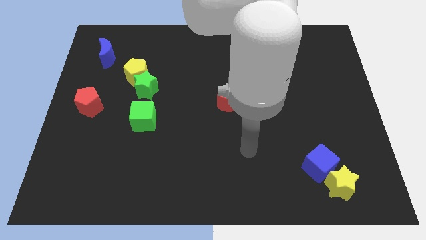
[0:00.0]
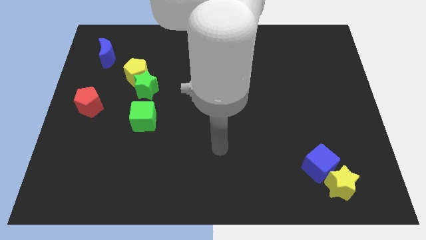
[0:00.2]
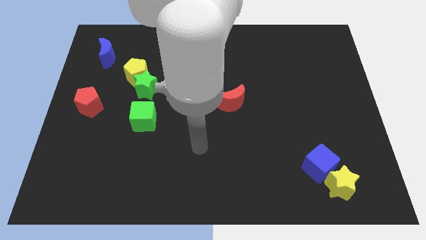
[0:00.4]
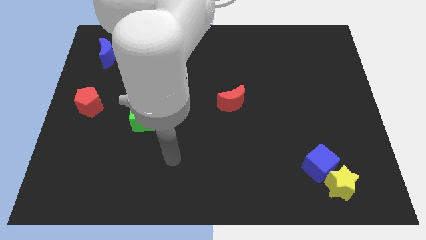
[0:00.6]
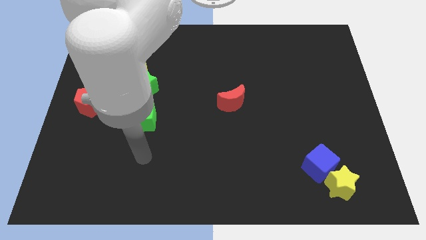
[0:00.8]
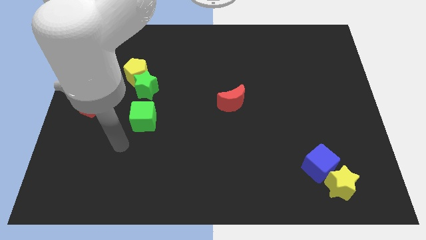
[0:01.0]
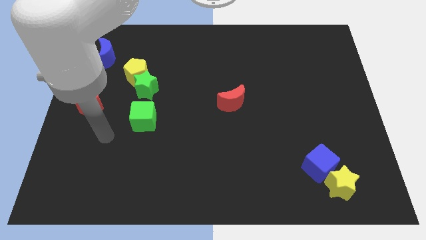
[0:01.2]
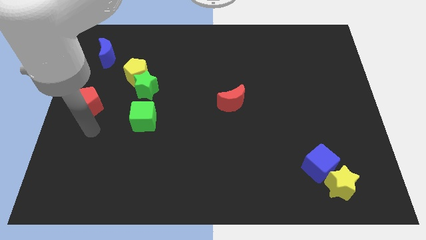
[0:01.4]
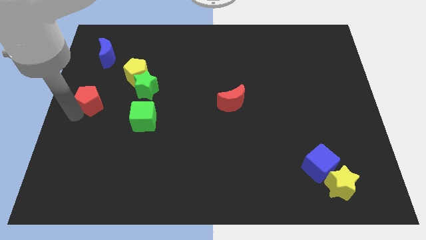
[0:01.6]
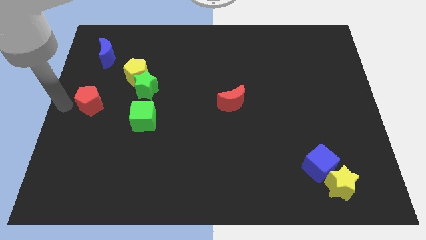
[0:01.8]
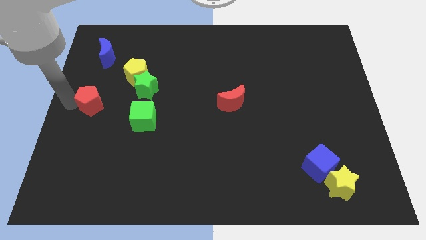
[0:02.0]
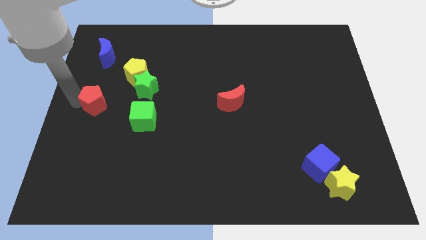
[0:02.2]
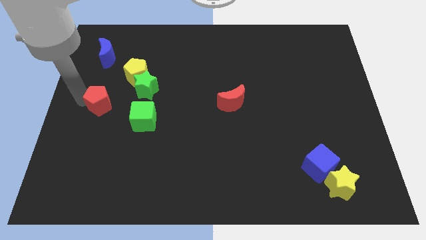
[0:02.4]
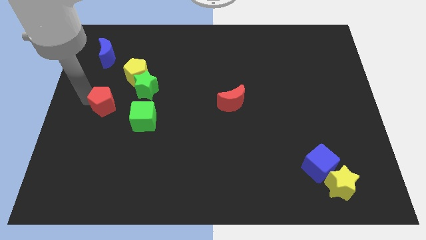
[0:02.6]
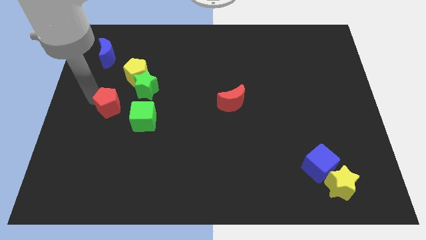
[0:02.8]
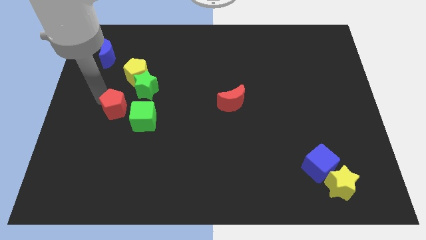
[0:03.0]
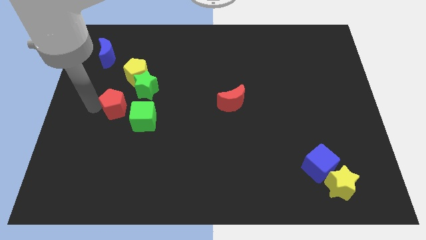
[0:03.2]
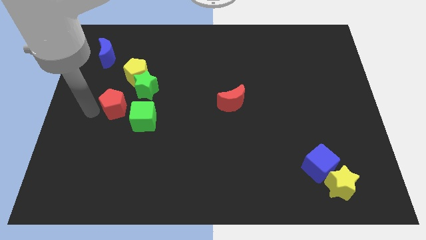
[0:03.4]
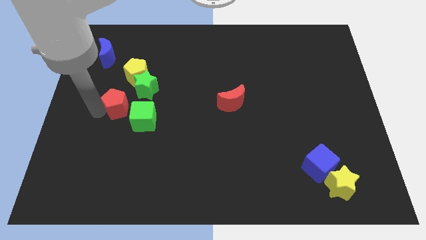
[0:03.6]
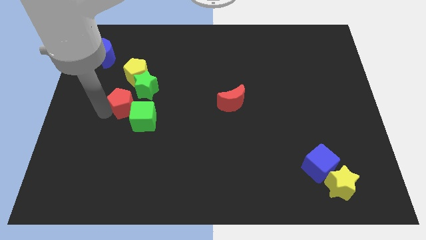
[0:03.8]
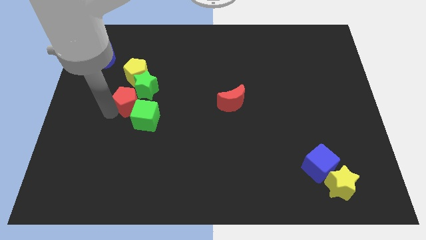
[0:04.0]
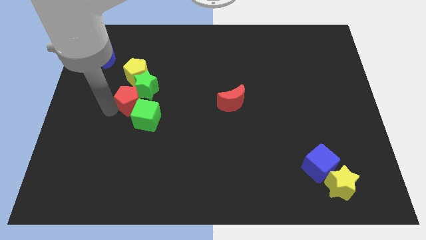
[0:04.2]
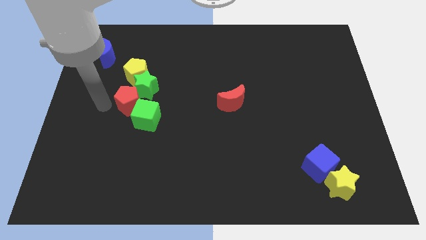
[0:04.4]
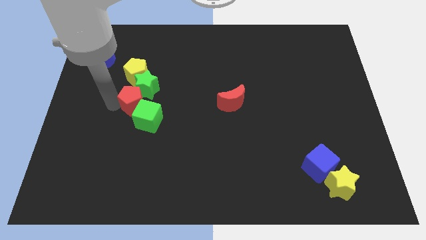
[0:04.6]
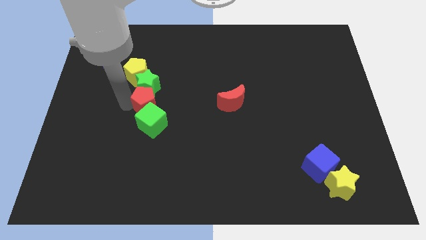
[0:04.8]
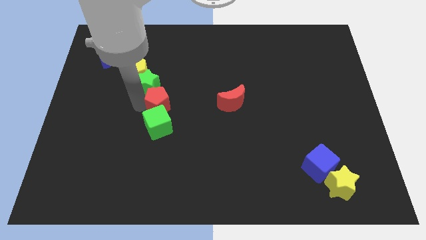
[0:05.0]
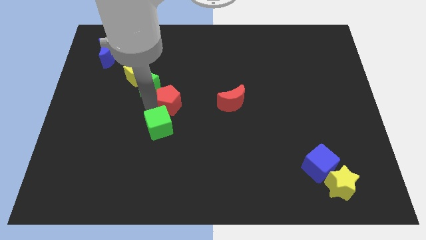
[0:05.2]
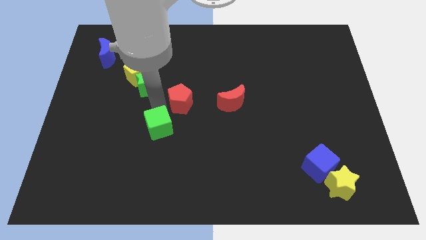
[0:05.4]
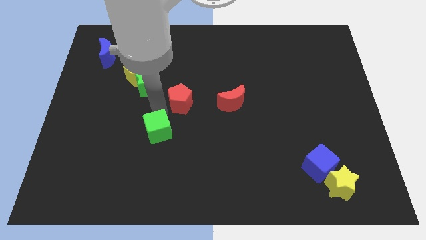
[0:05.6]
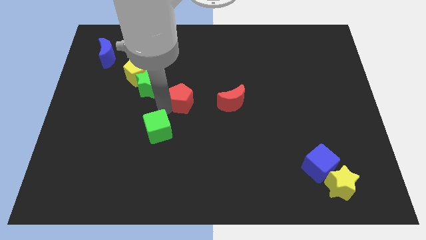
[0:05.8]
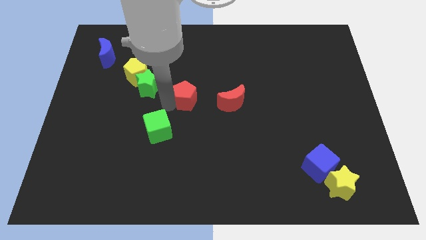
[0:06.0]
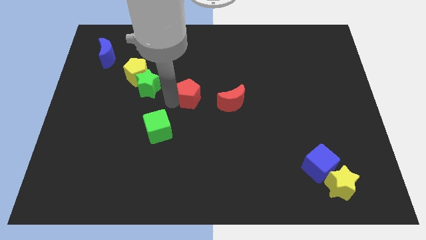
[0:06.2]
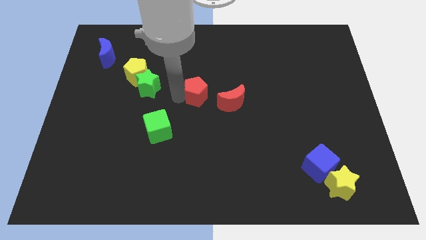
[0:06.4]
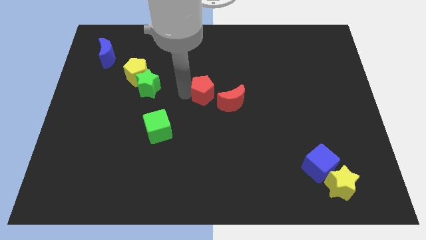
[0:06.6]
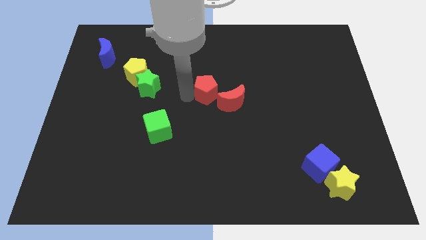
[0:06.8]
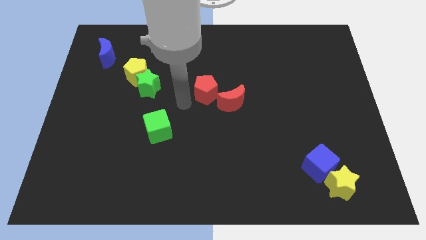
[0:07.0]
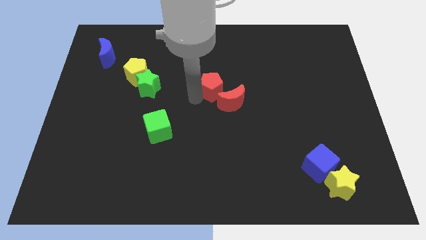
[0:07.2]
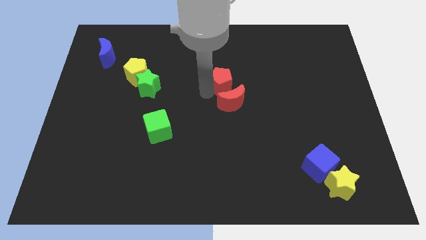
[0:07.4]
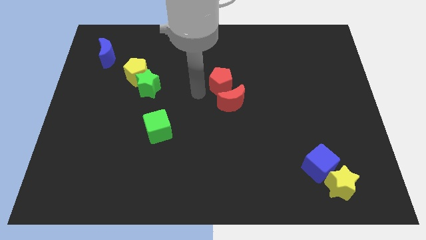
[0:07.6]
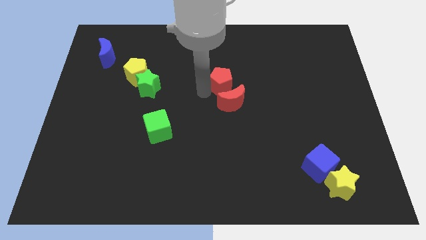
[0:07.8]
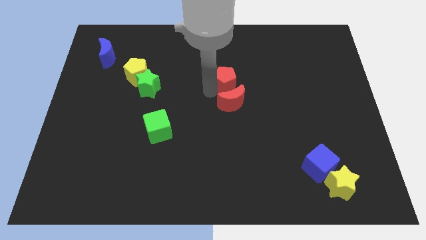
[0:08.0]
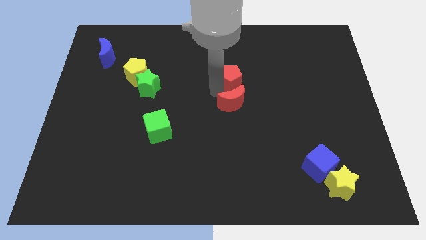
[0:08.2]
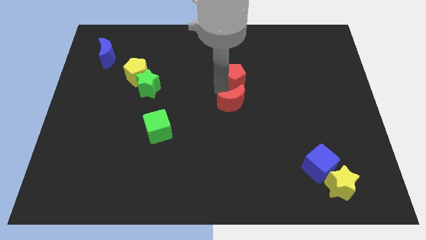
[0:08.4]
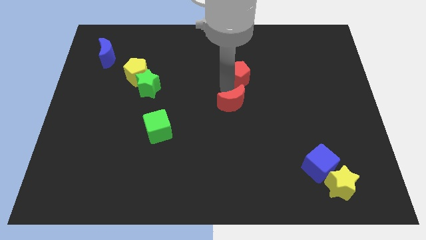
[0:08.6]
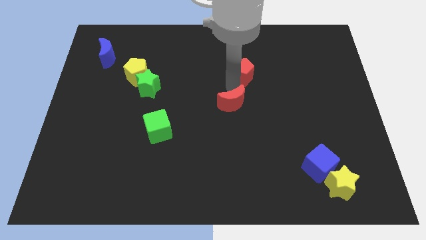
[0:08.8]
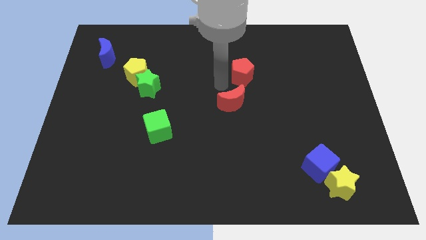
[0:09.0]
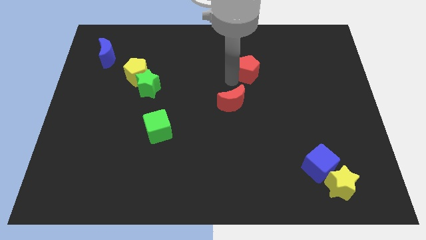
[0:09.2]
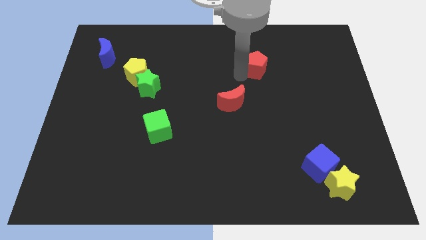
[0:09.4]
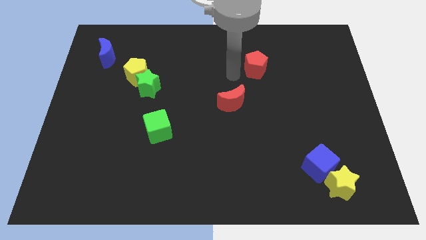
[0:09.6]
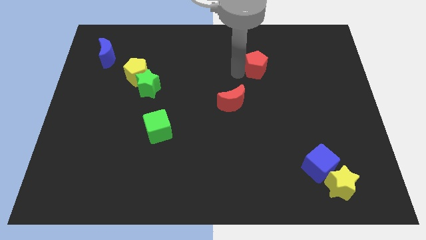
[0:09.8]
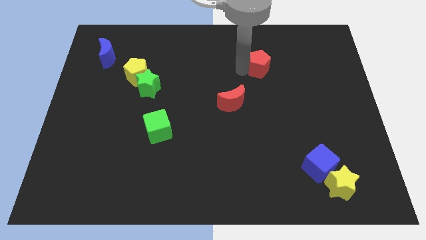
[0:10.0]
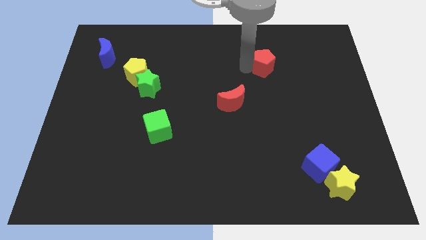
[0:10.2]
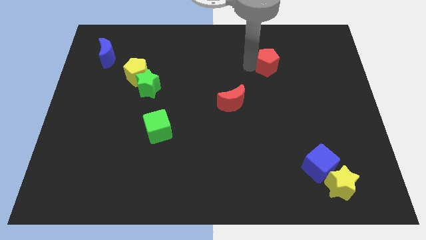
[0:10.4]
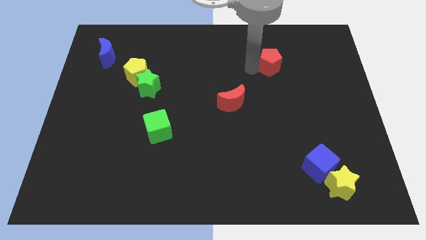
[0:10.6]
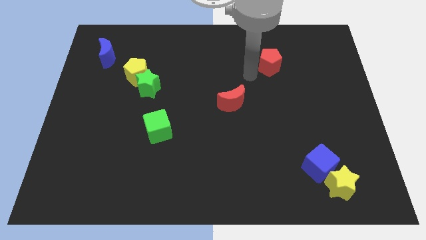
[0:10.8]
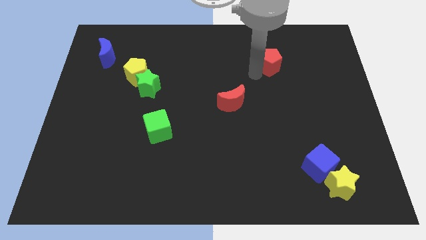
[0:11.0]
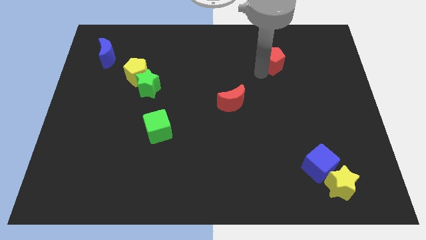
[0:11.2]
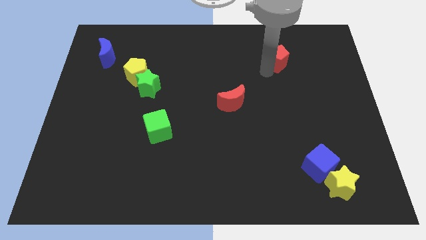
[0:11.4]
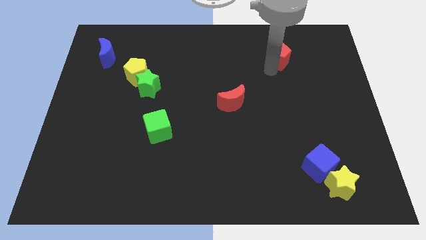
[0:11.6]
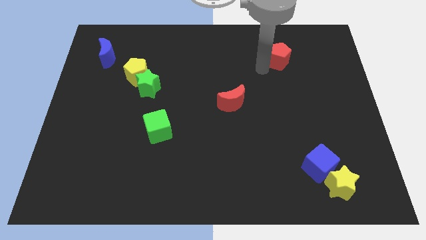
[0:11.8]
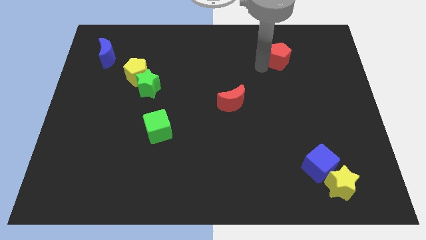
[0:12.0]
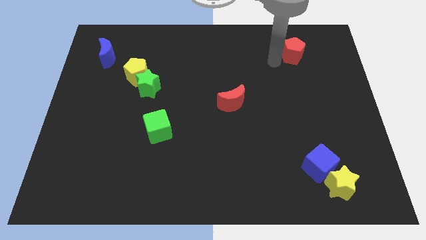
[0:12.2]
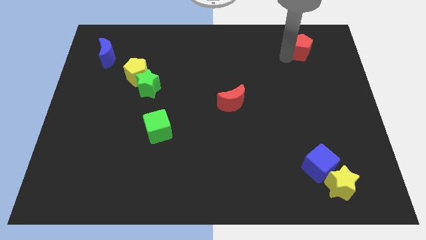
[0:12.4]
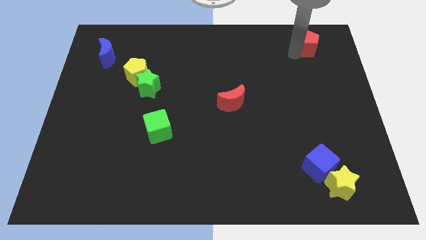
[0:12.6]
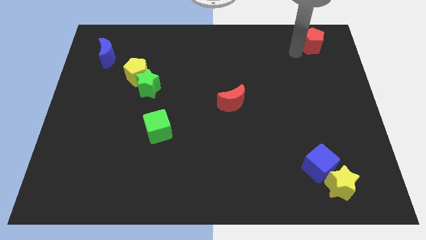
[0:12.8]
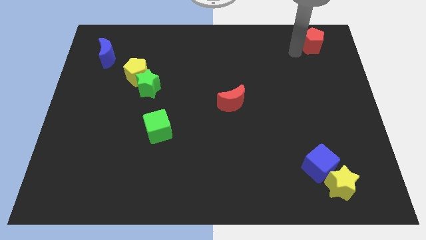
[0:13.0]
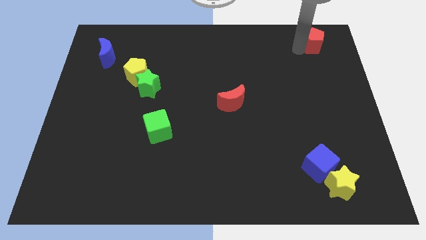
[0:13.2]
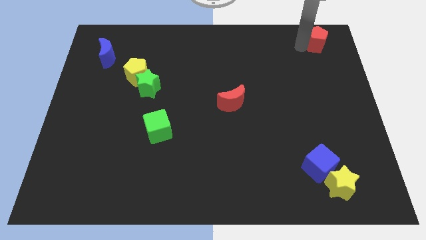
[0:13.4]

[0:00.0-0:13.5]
move the red pentagon to the top right of the board

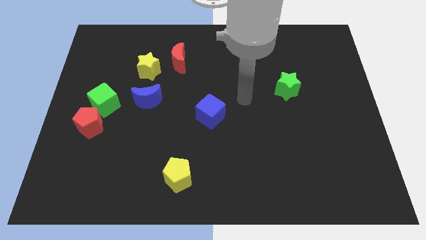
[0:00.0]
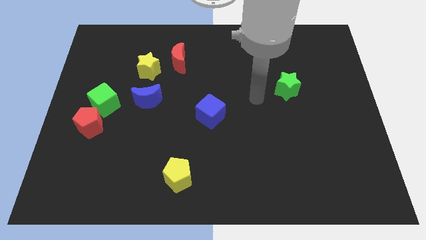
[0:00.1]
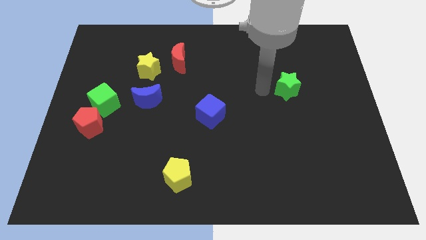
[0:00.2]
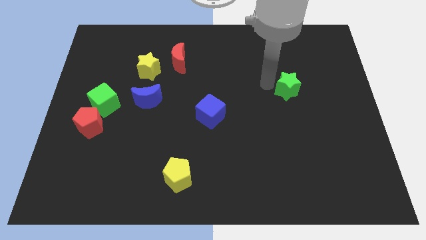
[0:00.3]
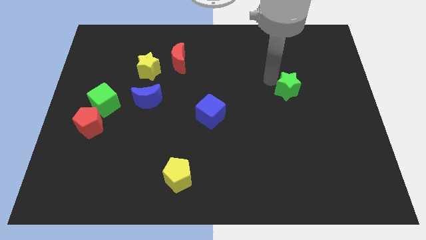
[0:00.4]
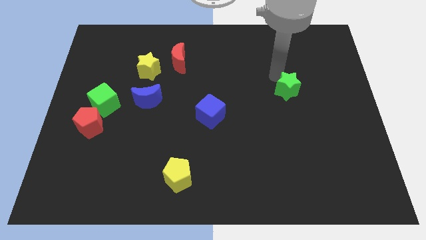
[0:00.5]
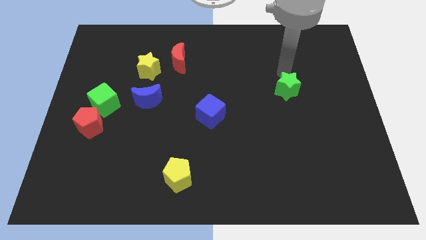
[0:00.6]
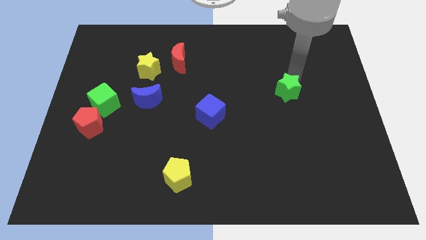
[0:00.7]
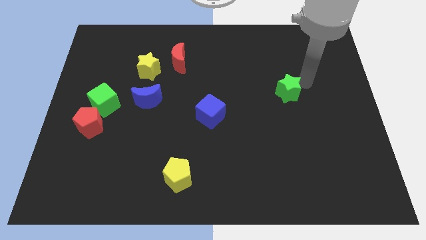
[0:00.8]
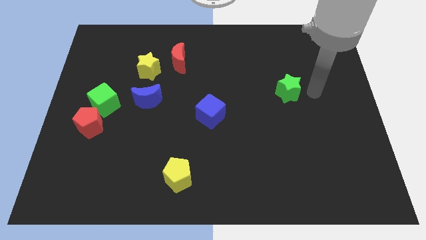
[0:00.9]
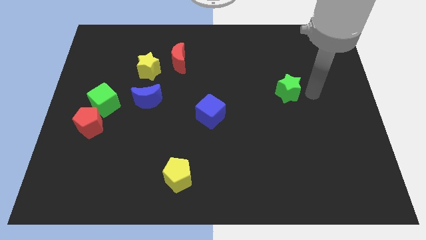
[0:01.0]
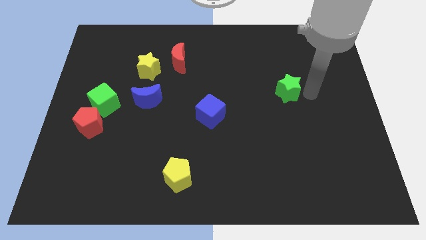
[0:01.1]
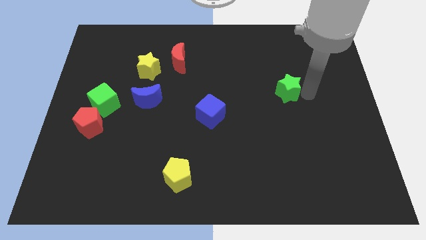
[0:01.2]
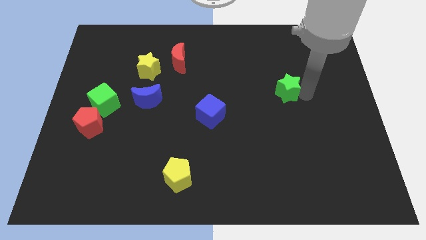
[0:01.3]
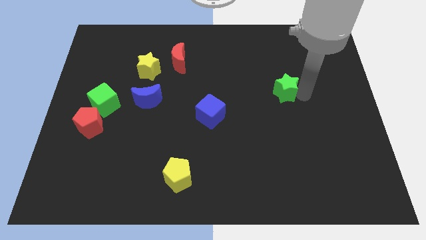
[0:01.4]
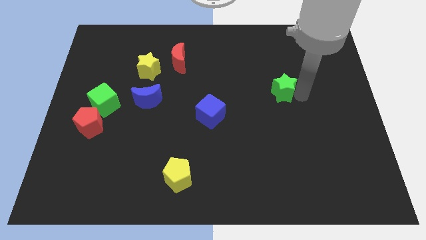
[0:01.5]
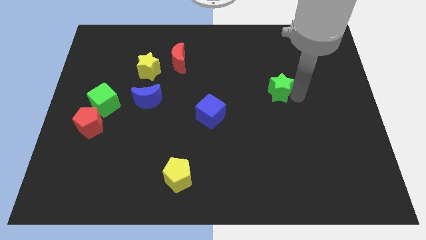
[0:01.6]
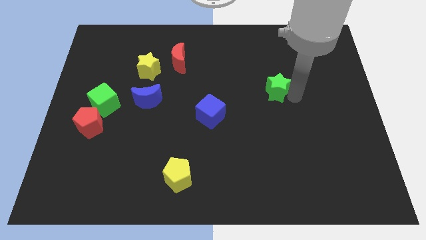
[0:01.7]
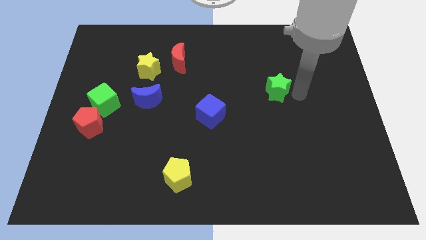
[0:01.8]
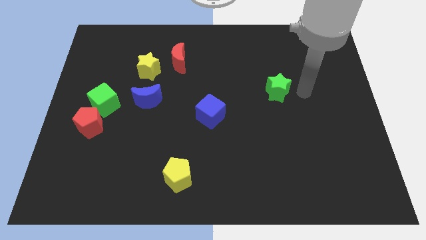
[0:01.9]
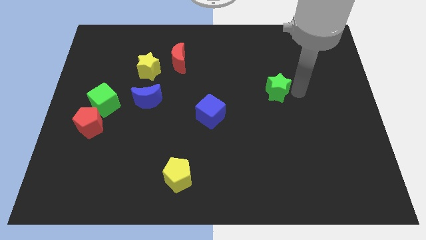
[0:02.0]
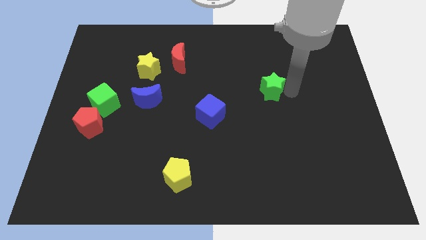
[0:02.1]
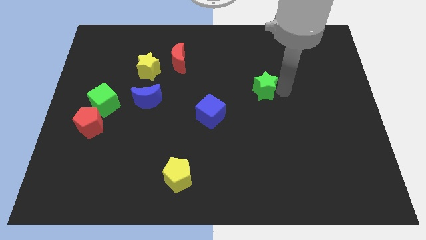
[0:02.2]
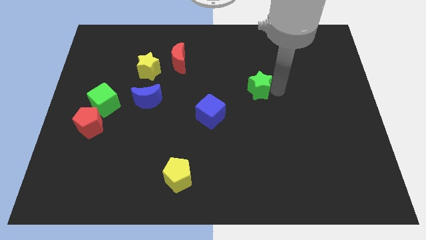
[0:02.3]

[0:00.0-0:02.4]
put the green star to the middle
